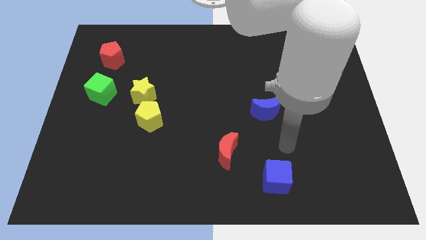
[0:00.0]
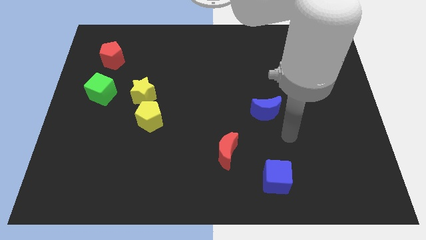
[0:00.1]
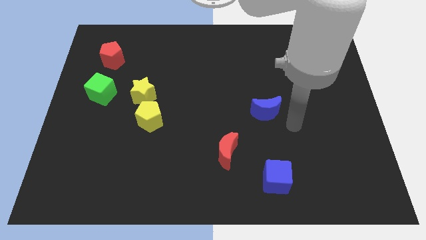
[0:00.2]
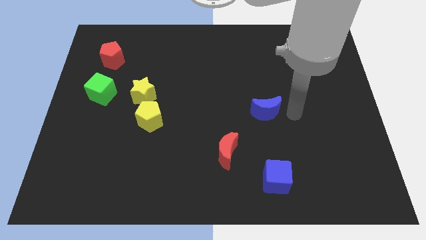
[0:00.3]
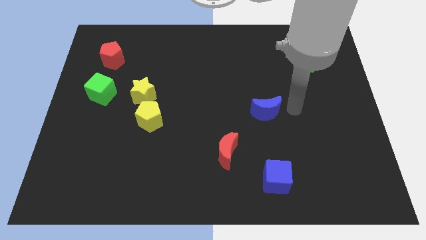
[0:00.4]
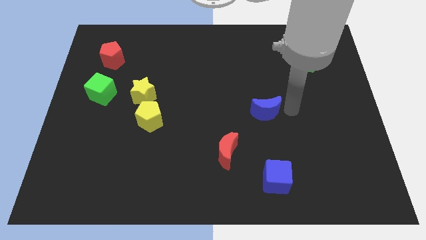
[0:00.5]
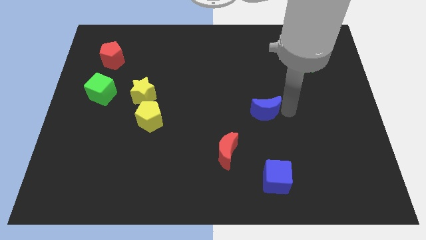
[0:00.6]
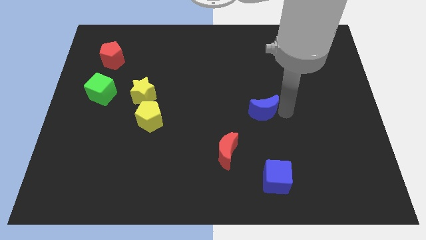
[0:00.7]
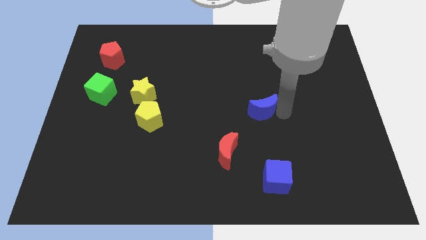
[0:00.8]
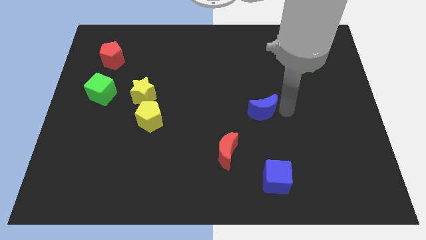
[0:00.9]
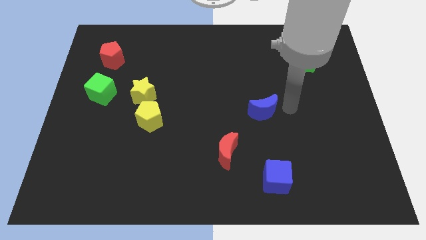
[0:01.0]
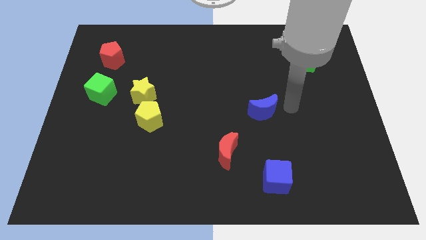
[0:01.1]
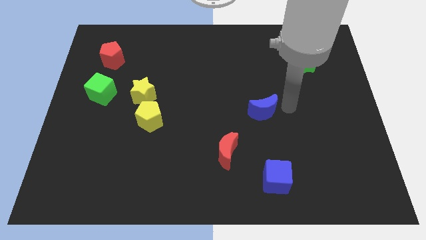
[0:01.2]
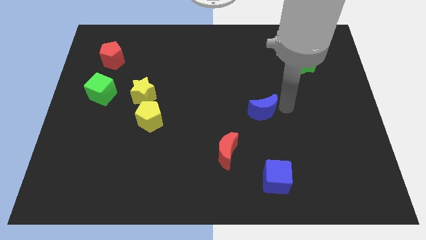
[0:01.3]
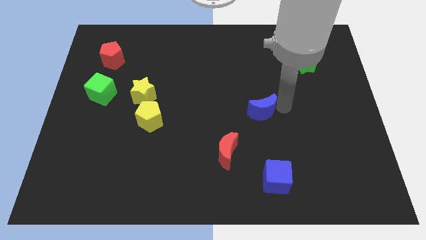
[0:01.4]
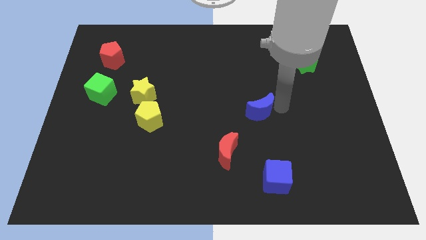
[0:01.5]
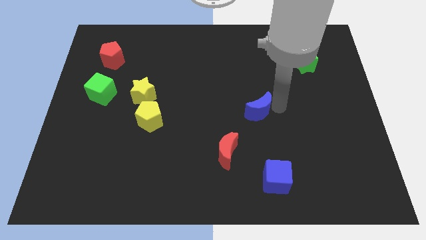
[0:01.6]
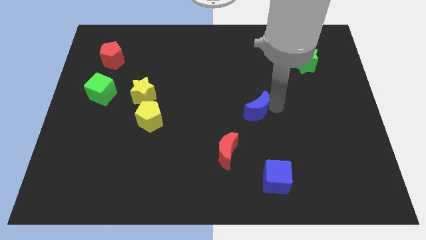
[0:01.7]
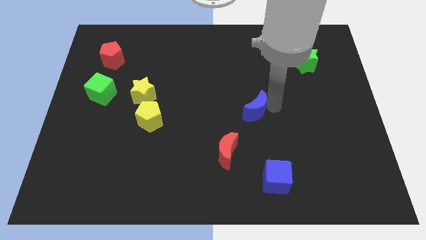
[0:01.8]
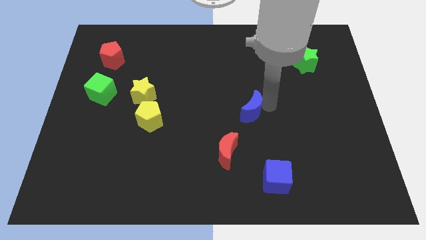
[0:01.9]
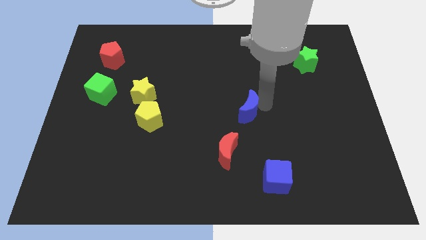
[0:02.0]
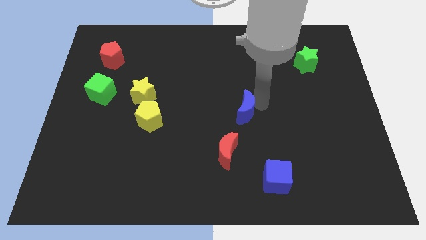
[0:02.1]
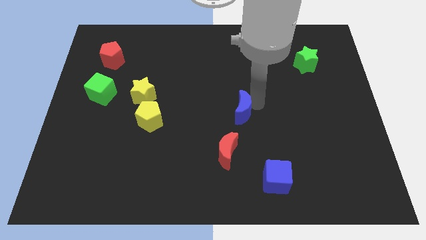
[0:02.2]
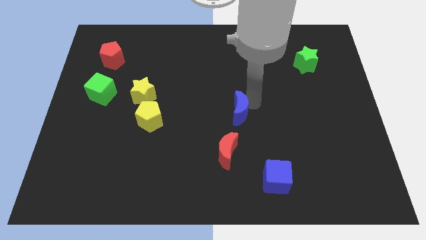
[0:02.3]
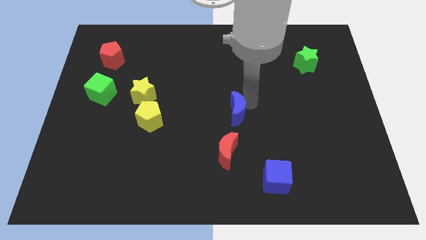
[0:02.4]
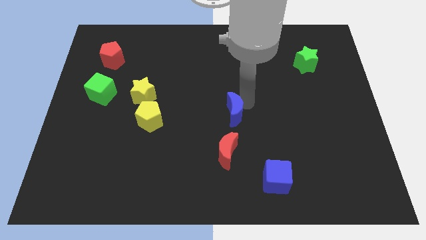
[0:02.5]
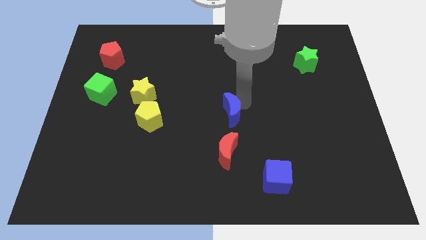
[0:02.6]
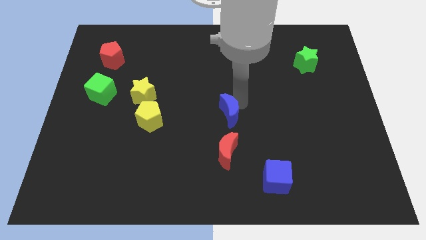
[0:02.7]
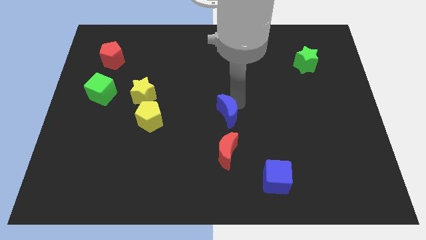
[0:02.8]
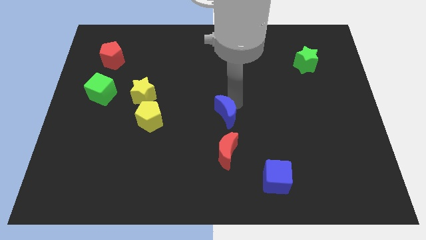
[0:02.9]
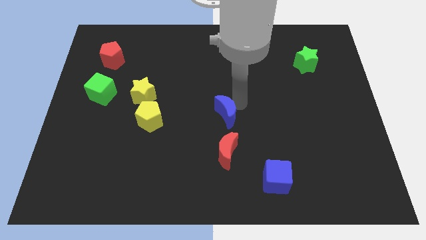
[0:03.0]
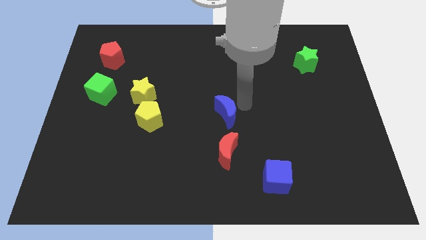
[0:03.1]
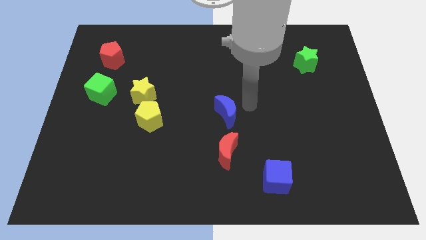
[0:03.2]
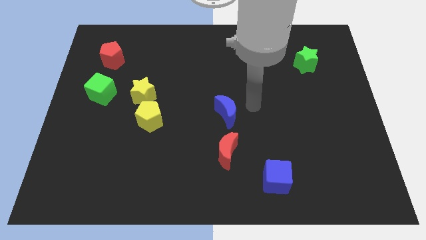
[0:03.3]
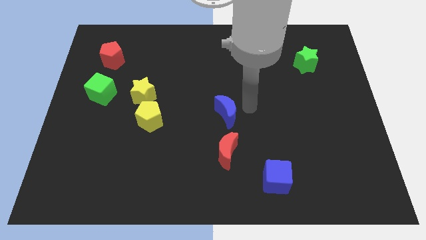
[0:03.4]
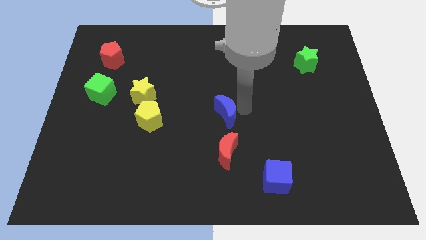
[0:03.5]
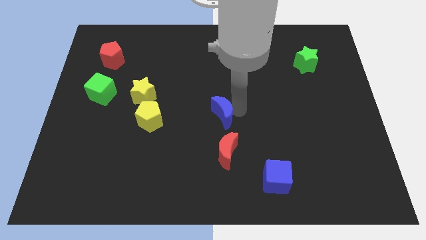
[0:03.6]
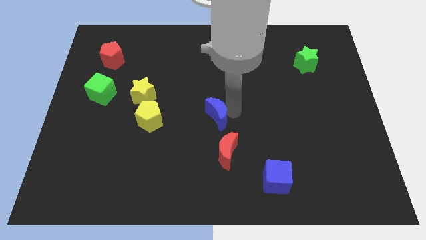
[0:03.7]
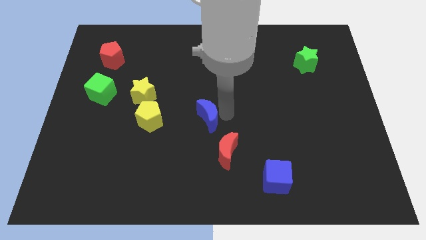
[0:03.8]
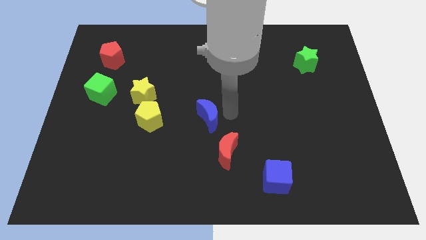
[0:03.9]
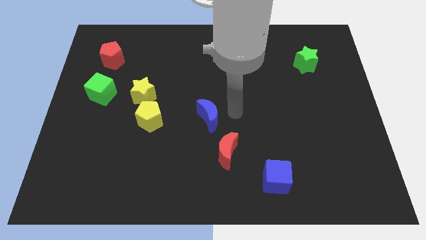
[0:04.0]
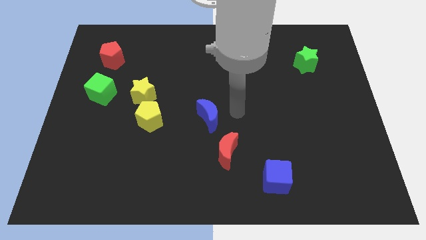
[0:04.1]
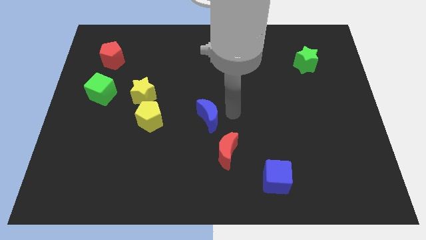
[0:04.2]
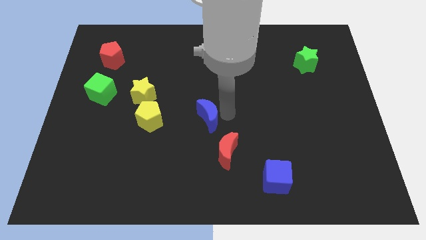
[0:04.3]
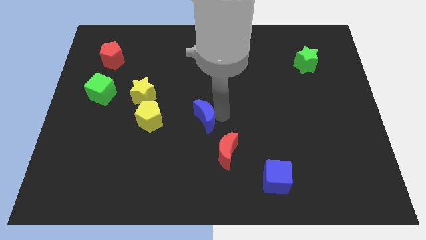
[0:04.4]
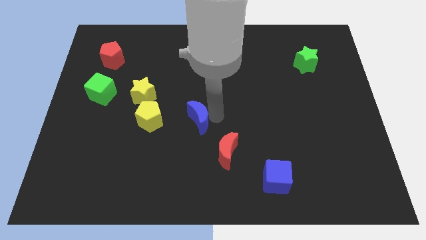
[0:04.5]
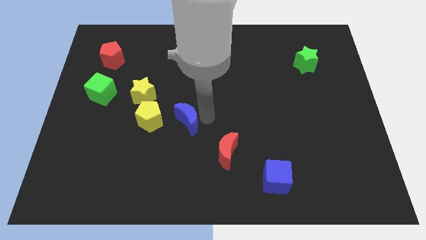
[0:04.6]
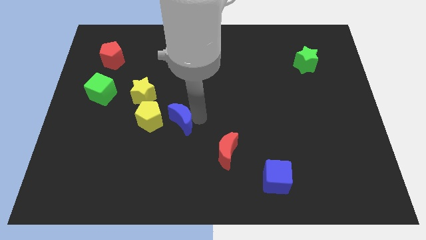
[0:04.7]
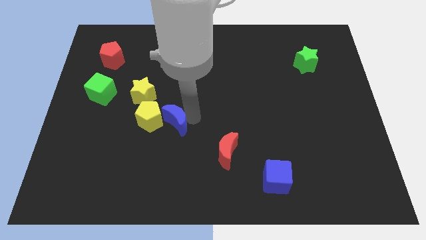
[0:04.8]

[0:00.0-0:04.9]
move the blue moon to the left

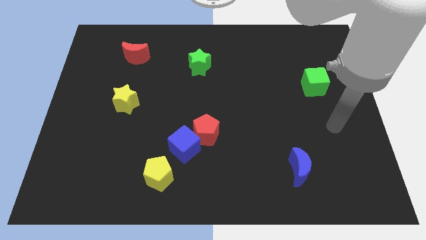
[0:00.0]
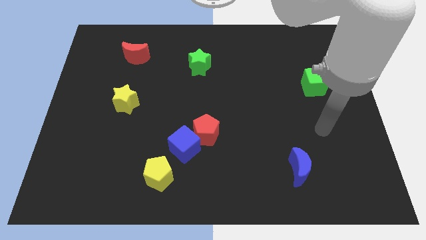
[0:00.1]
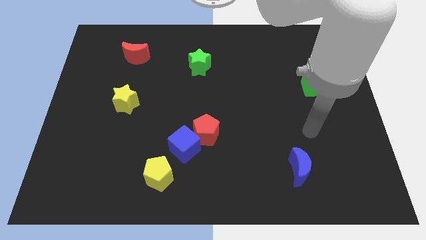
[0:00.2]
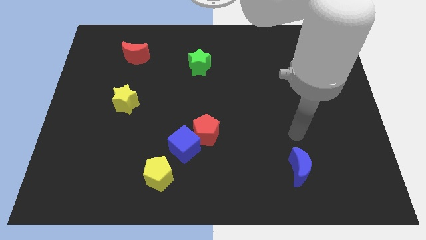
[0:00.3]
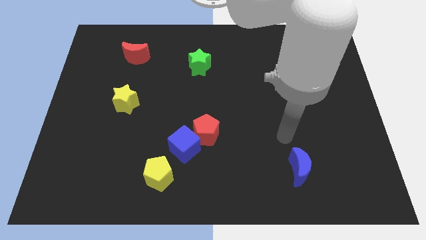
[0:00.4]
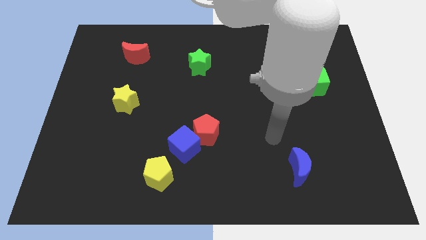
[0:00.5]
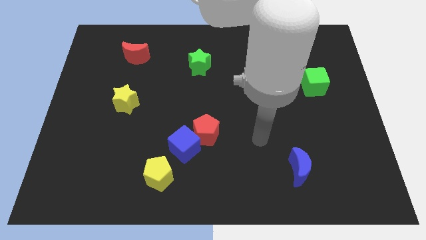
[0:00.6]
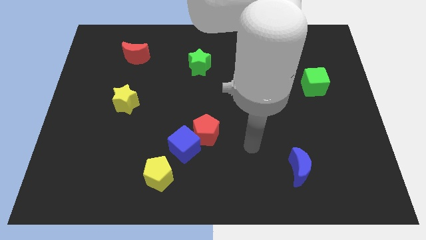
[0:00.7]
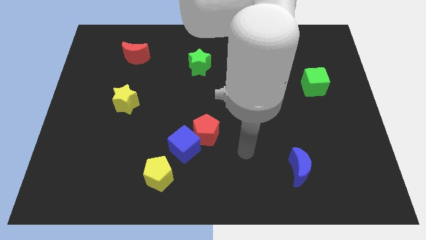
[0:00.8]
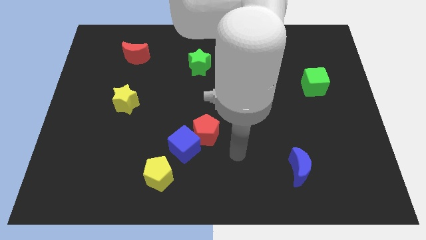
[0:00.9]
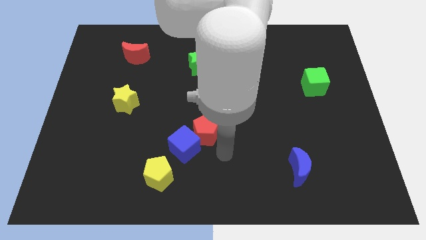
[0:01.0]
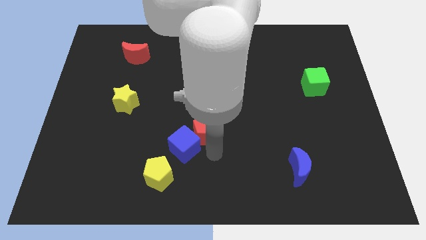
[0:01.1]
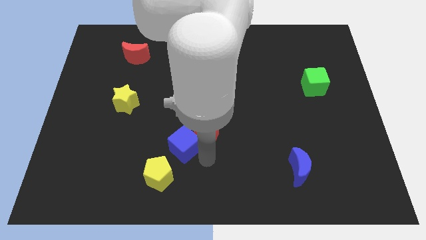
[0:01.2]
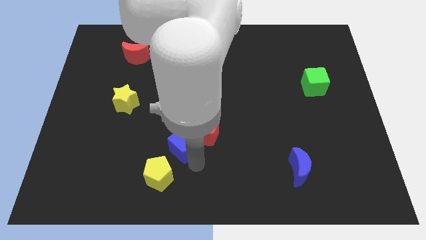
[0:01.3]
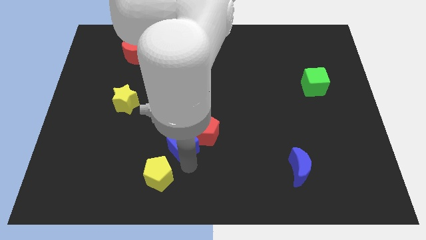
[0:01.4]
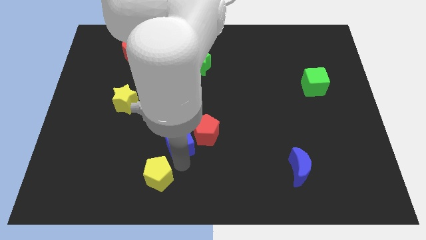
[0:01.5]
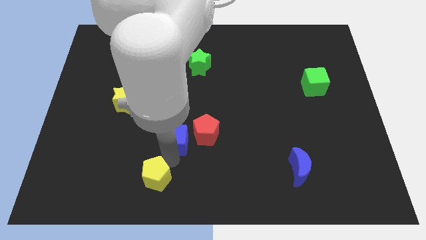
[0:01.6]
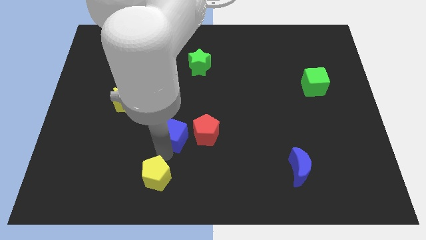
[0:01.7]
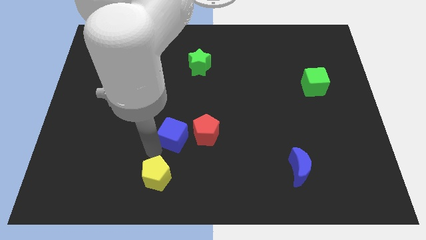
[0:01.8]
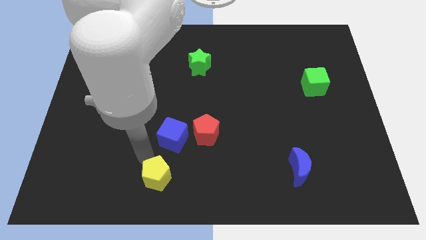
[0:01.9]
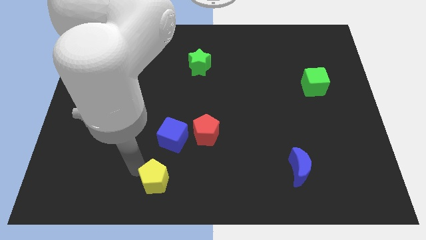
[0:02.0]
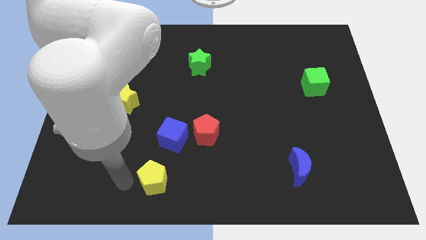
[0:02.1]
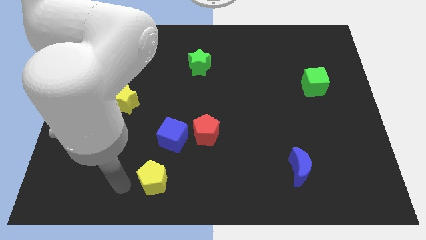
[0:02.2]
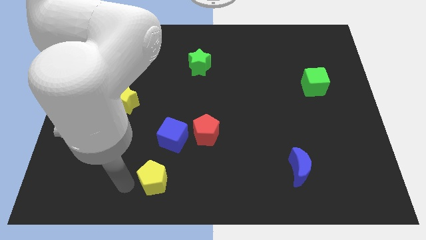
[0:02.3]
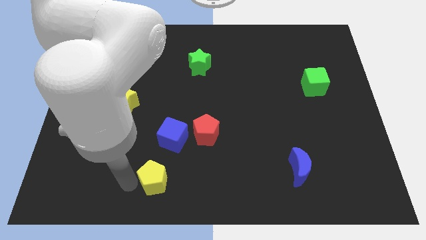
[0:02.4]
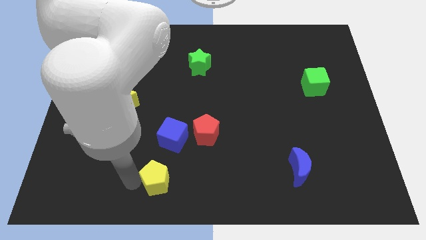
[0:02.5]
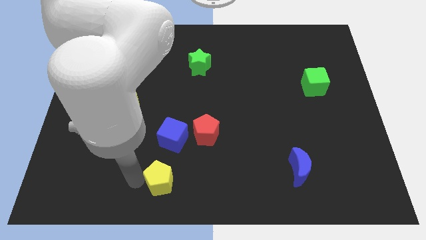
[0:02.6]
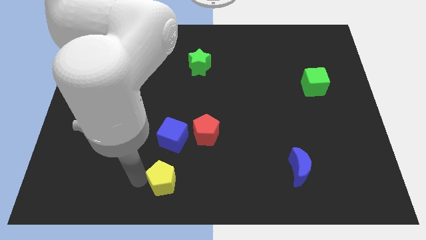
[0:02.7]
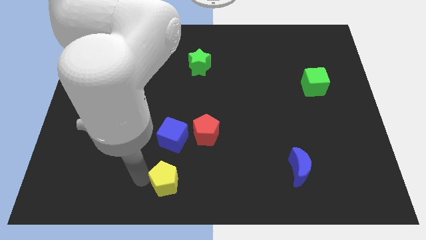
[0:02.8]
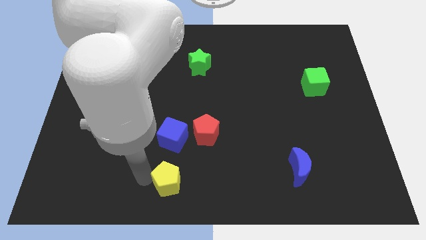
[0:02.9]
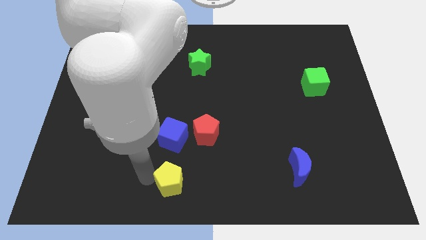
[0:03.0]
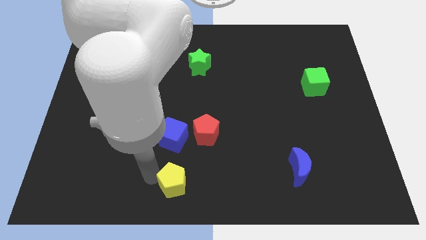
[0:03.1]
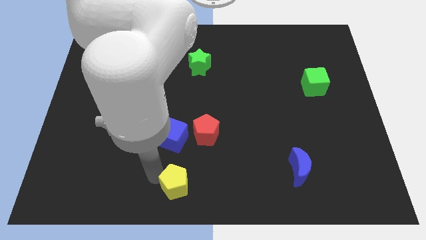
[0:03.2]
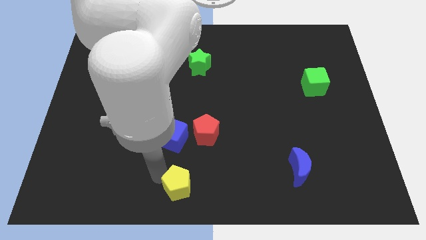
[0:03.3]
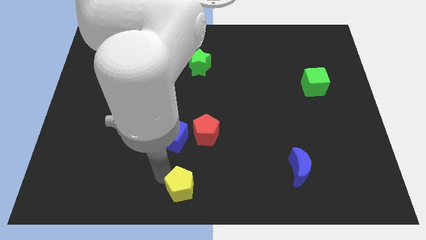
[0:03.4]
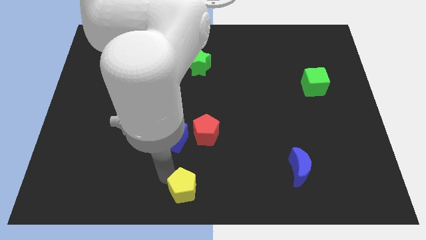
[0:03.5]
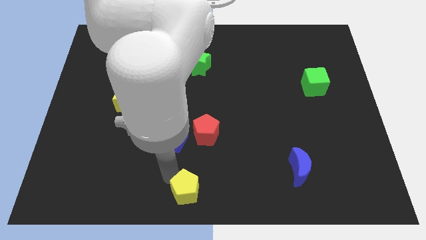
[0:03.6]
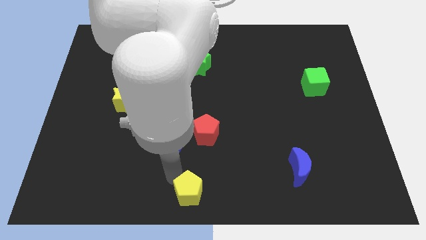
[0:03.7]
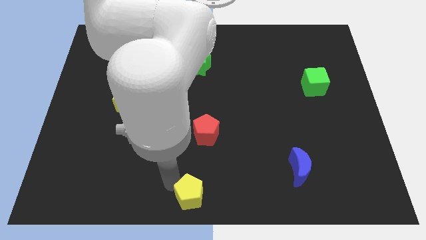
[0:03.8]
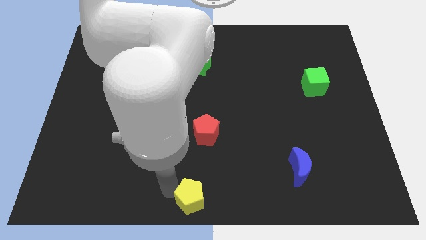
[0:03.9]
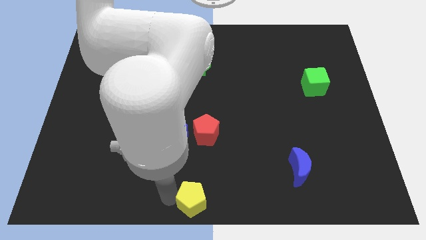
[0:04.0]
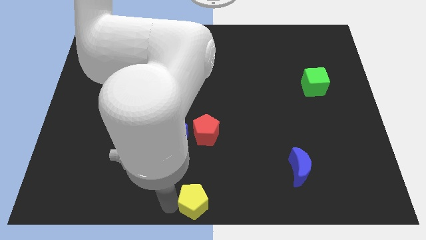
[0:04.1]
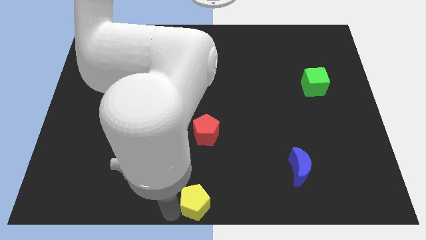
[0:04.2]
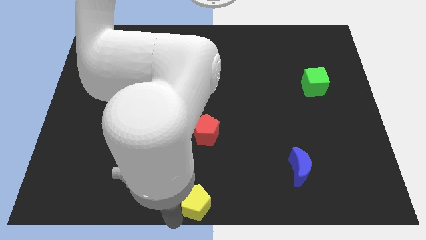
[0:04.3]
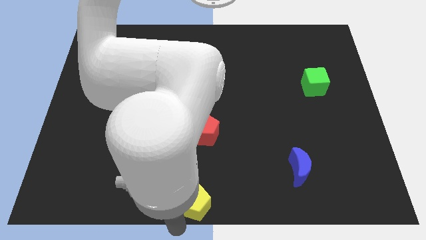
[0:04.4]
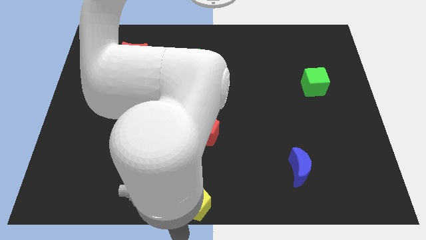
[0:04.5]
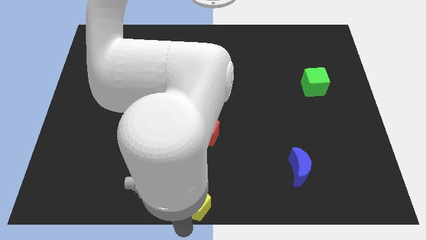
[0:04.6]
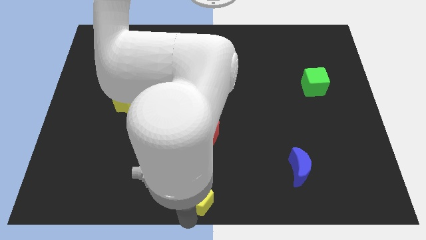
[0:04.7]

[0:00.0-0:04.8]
push the yellow pentagon right a bit
